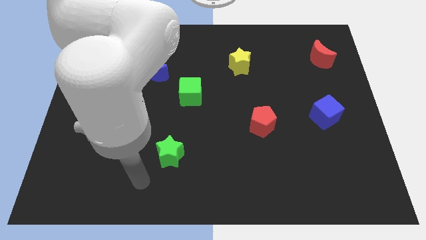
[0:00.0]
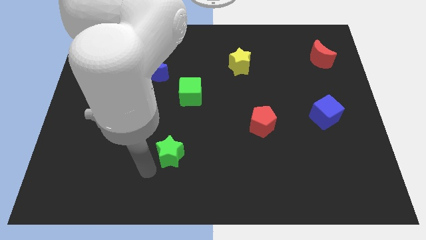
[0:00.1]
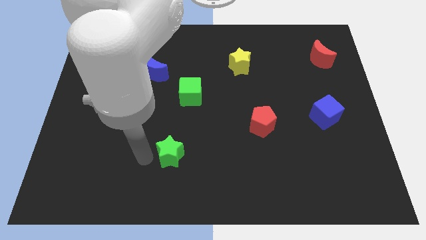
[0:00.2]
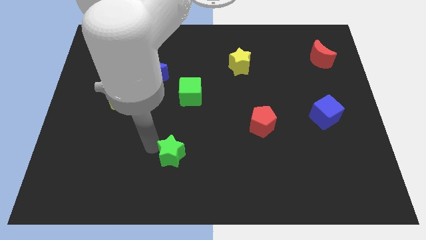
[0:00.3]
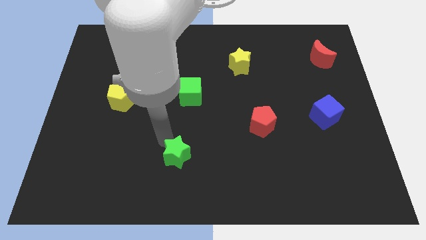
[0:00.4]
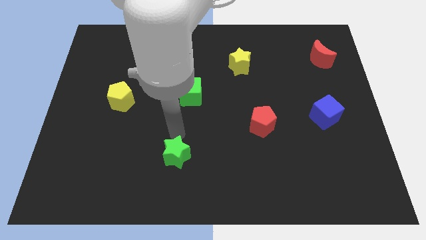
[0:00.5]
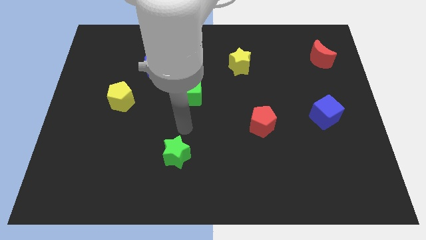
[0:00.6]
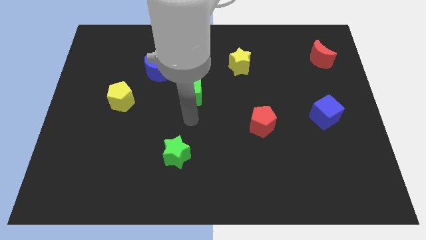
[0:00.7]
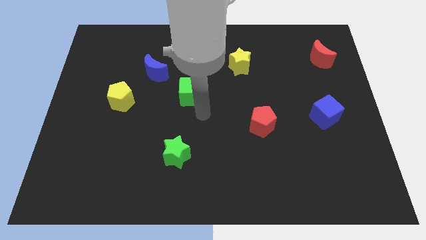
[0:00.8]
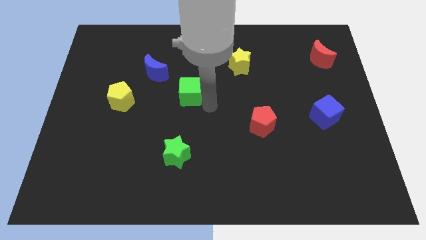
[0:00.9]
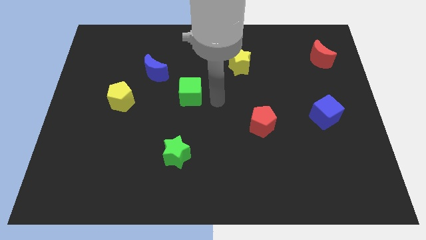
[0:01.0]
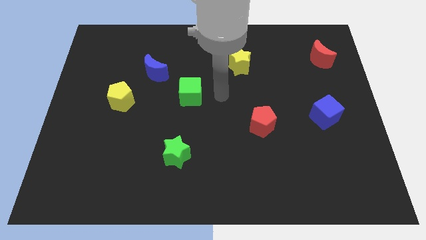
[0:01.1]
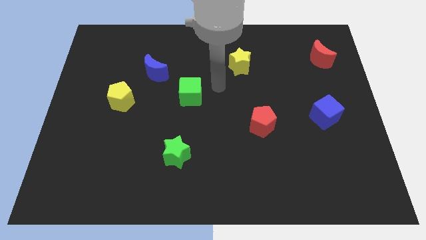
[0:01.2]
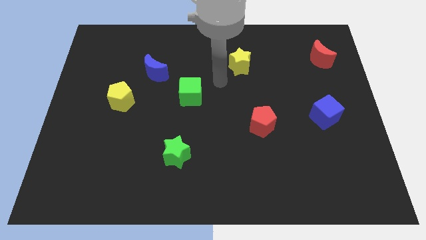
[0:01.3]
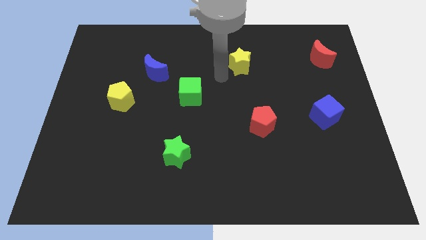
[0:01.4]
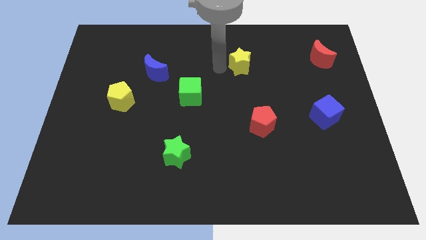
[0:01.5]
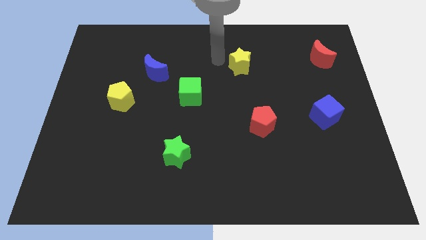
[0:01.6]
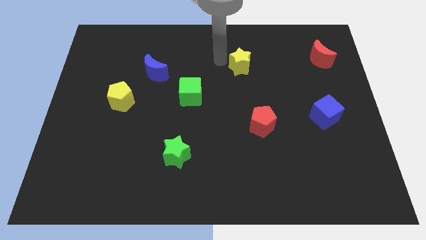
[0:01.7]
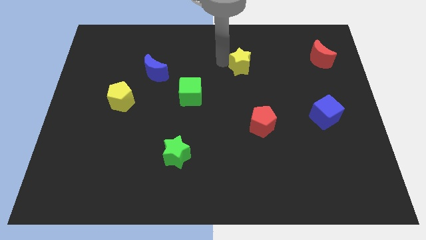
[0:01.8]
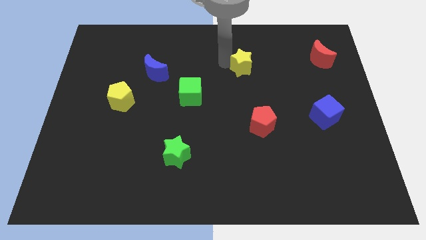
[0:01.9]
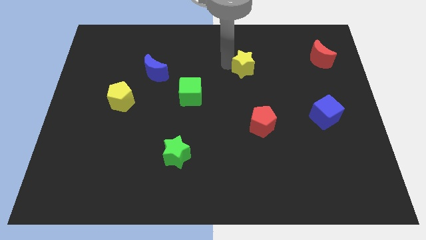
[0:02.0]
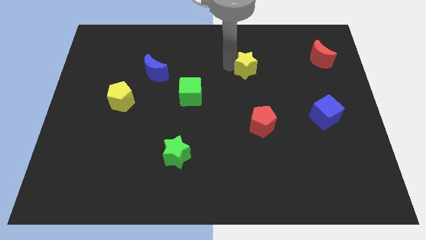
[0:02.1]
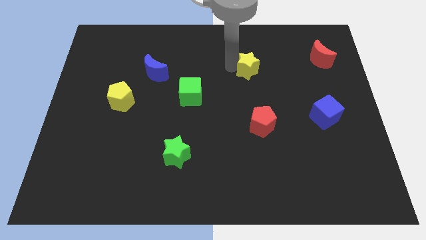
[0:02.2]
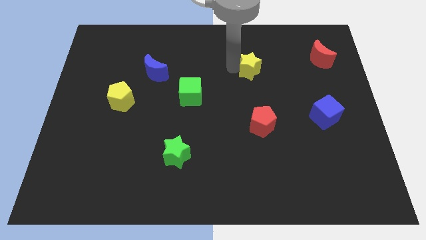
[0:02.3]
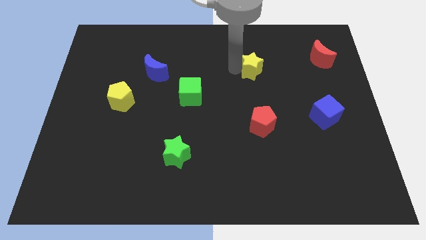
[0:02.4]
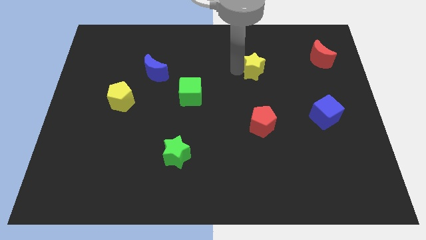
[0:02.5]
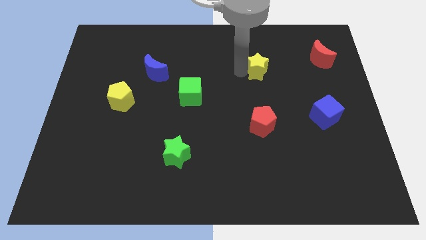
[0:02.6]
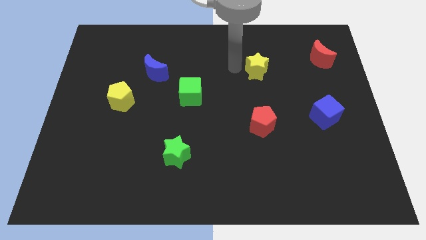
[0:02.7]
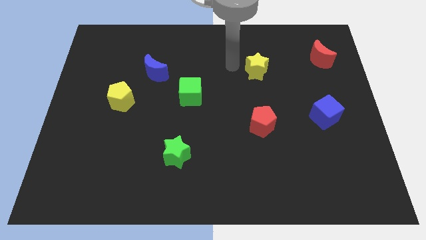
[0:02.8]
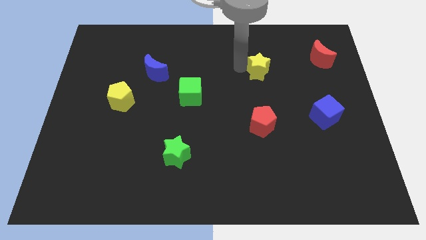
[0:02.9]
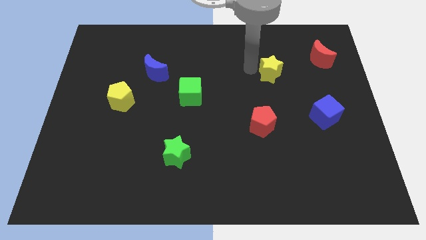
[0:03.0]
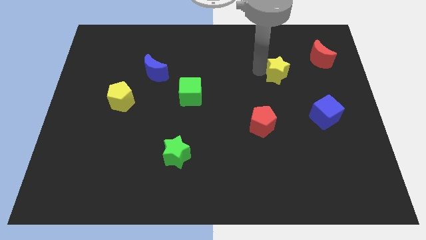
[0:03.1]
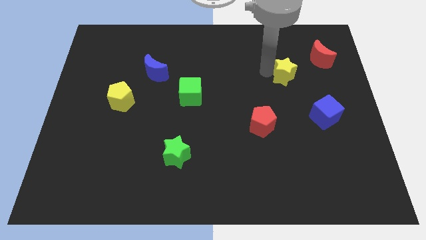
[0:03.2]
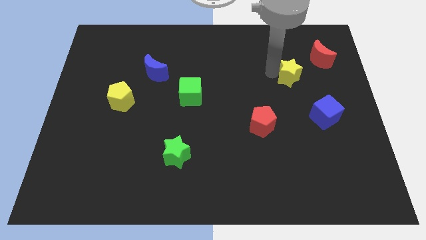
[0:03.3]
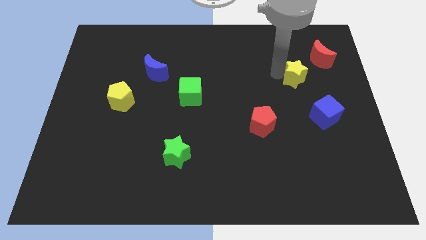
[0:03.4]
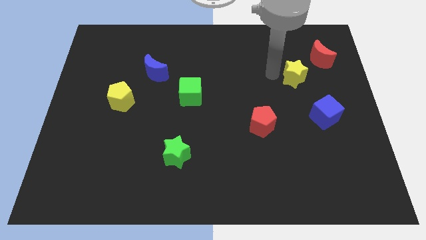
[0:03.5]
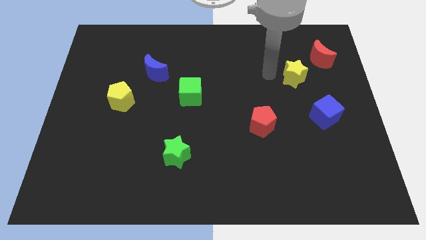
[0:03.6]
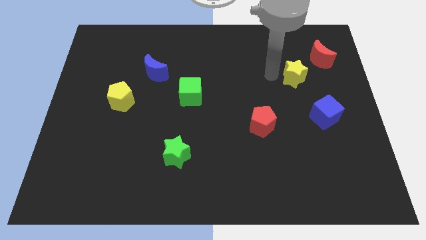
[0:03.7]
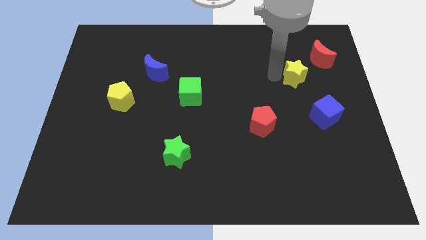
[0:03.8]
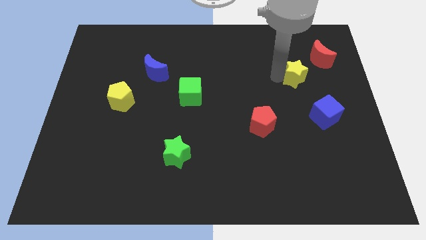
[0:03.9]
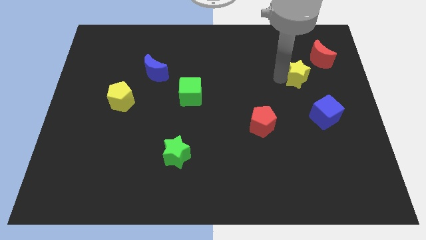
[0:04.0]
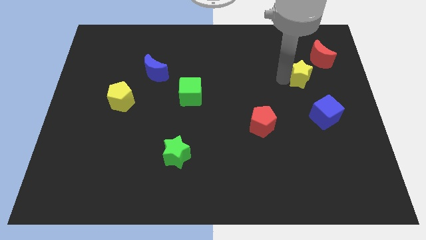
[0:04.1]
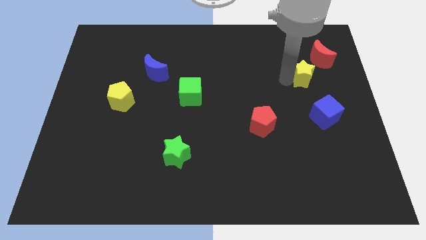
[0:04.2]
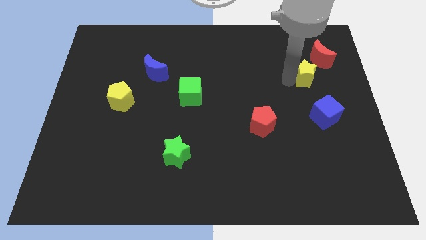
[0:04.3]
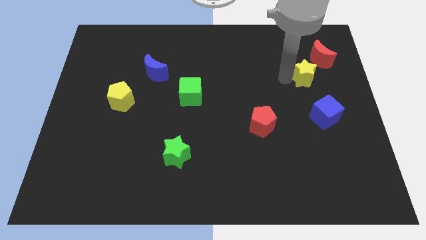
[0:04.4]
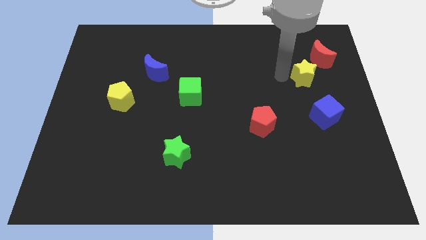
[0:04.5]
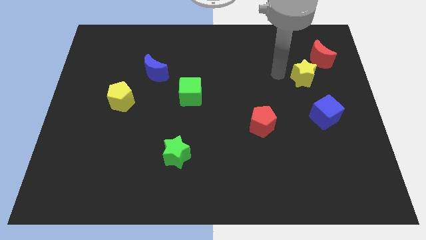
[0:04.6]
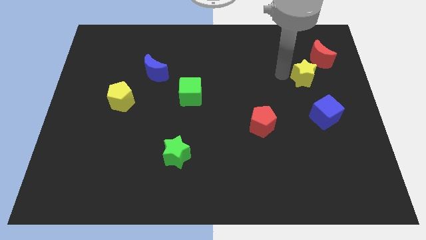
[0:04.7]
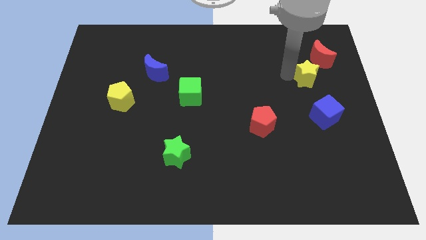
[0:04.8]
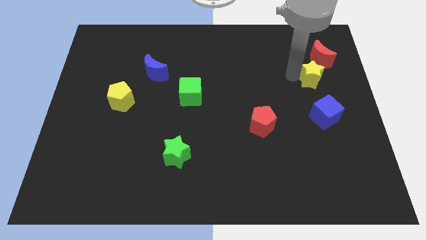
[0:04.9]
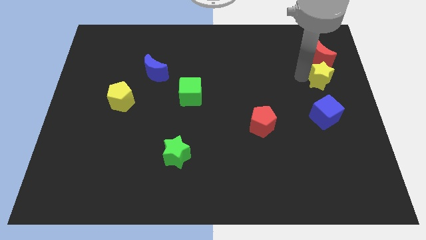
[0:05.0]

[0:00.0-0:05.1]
push the yellow star to the center right

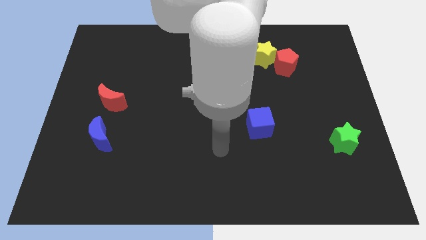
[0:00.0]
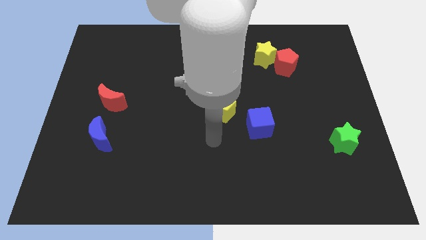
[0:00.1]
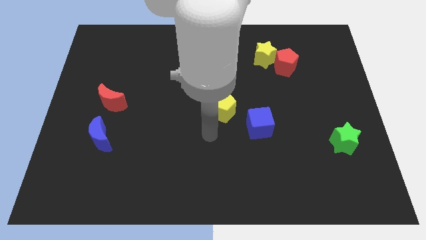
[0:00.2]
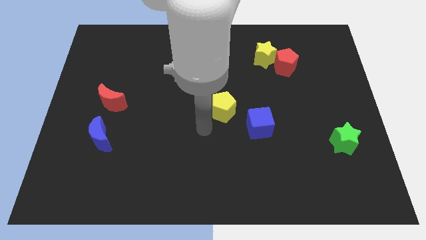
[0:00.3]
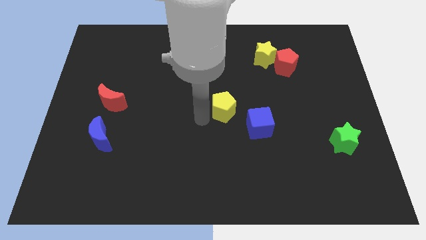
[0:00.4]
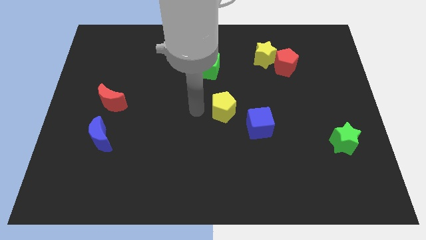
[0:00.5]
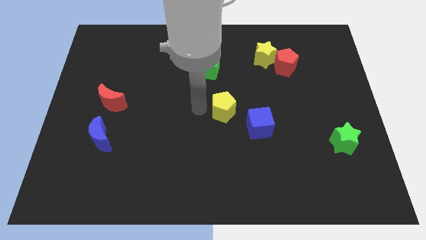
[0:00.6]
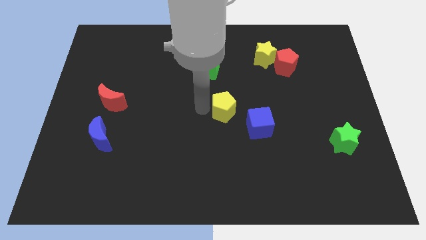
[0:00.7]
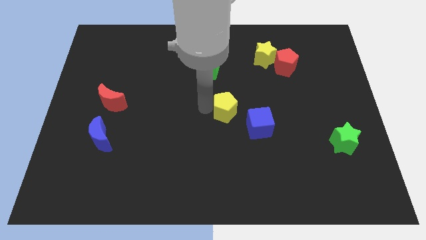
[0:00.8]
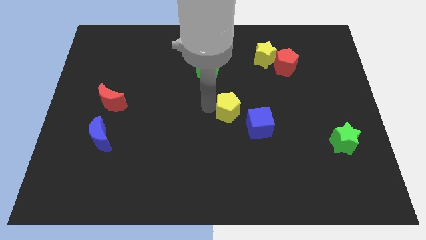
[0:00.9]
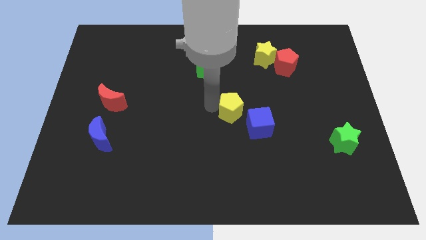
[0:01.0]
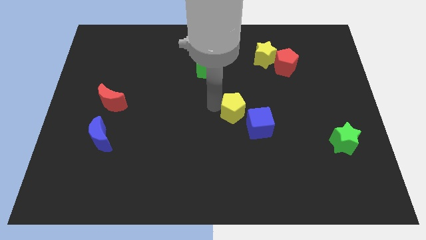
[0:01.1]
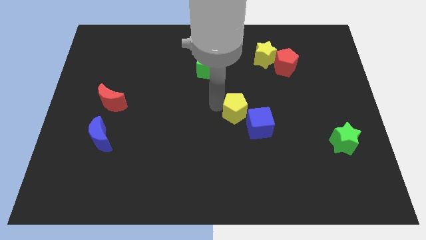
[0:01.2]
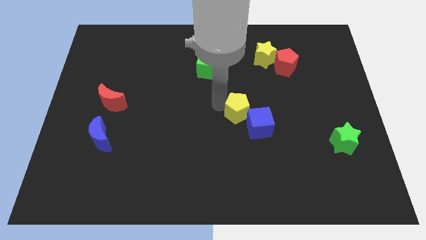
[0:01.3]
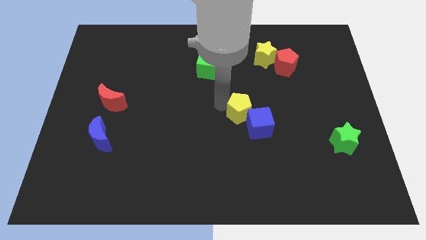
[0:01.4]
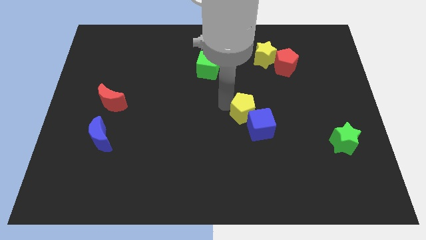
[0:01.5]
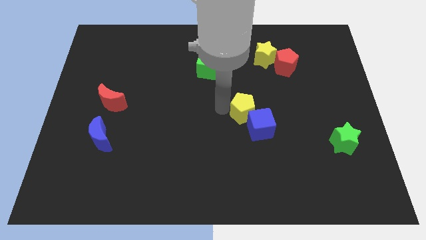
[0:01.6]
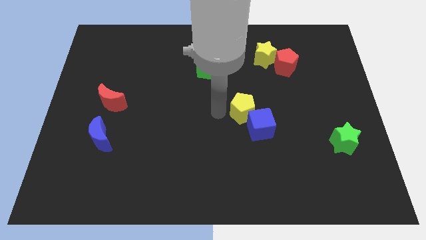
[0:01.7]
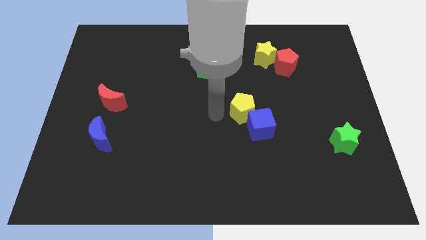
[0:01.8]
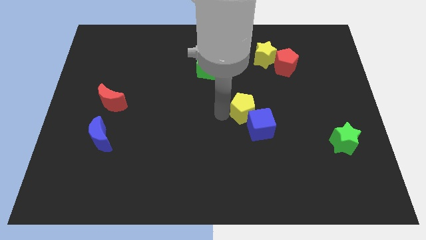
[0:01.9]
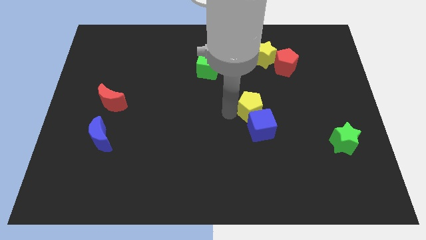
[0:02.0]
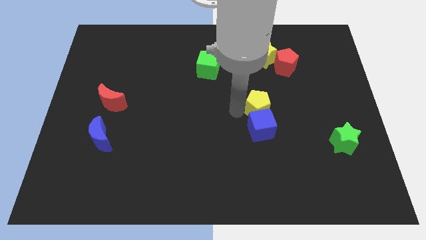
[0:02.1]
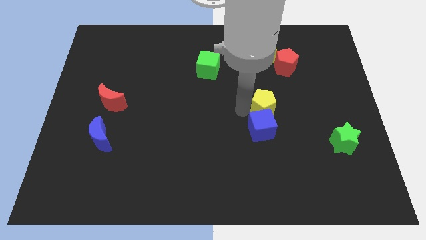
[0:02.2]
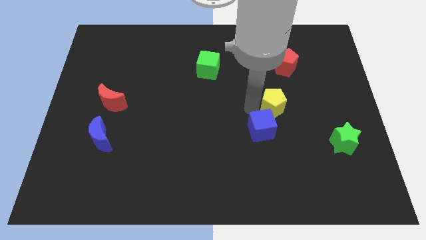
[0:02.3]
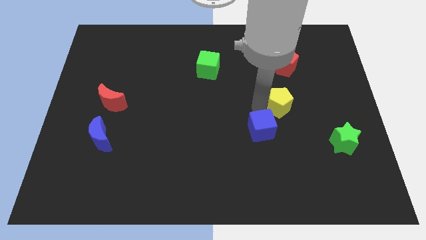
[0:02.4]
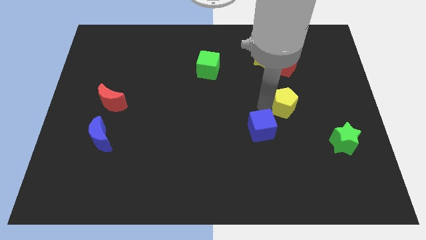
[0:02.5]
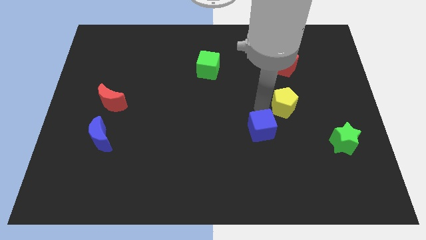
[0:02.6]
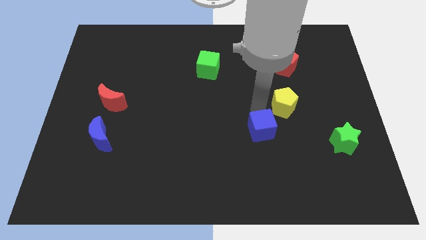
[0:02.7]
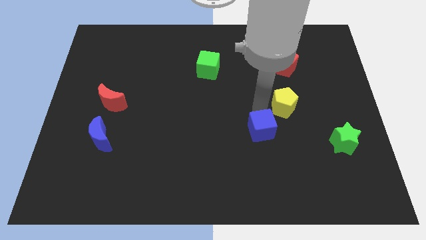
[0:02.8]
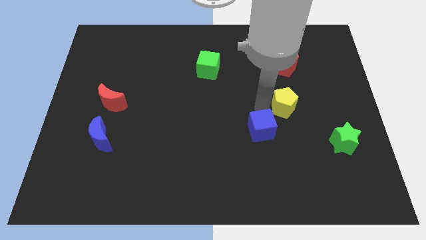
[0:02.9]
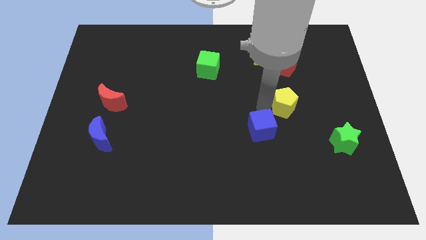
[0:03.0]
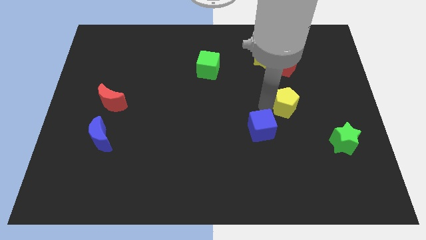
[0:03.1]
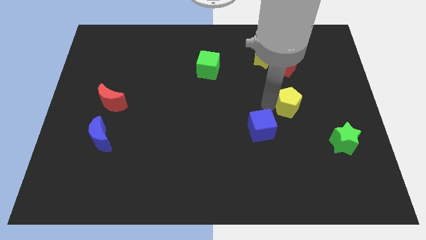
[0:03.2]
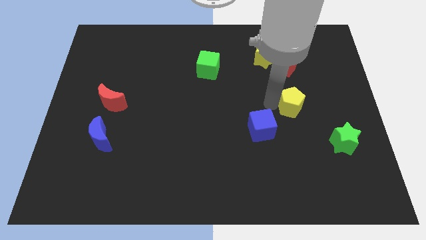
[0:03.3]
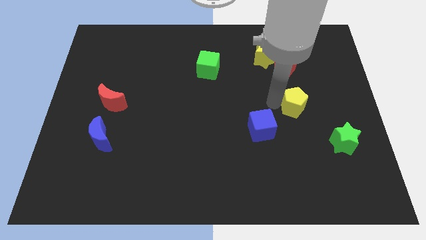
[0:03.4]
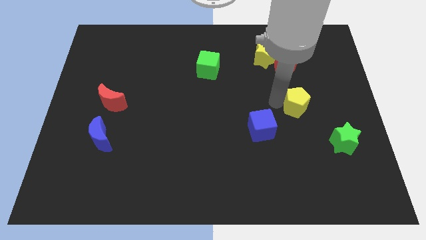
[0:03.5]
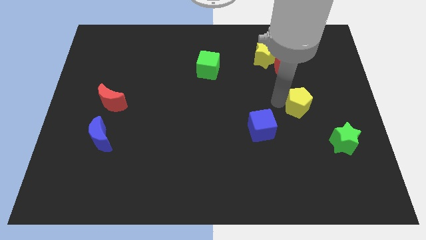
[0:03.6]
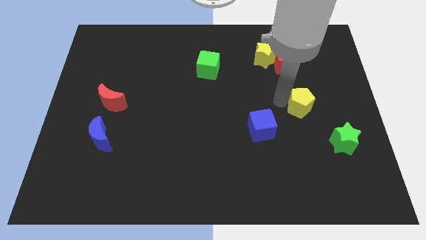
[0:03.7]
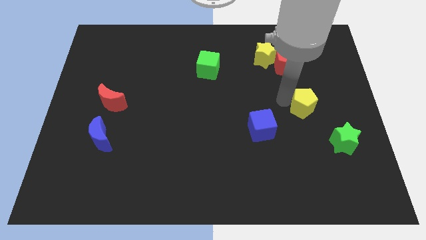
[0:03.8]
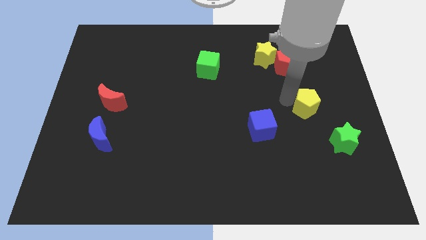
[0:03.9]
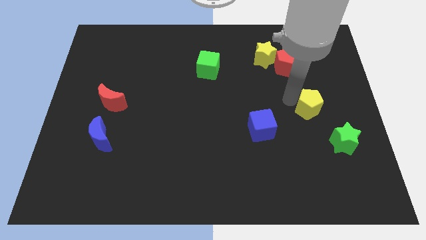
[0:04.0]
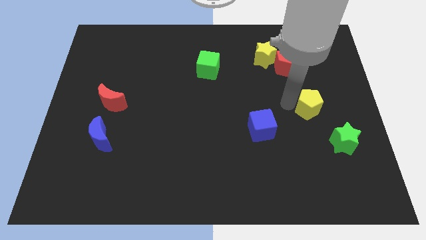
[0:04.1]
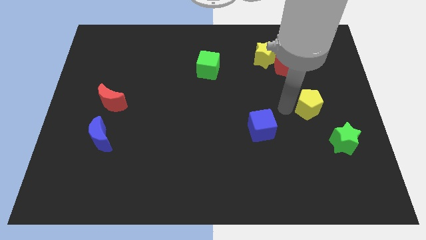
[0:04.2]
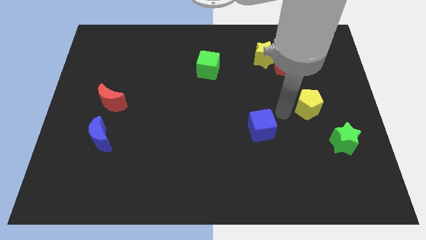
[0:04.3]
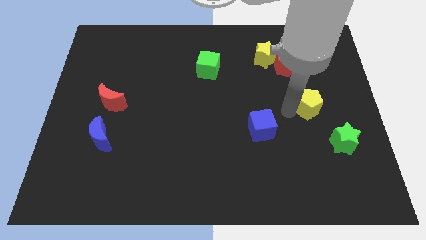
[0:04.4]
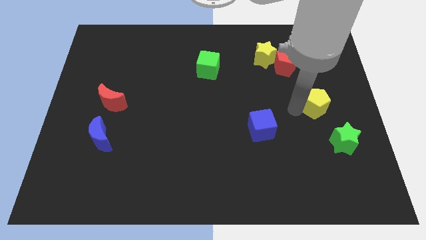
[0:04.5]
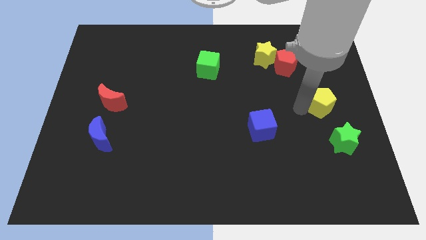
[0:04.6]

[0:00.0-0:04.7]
push the yellow pentagon to the right side
